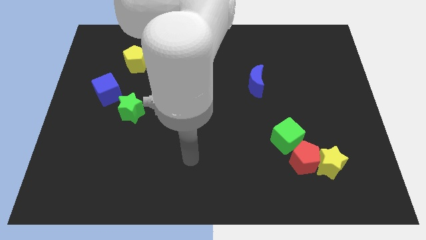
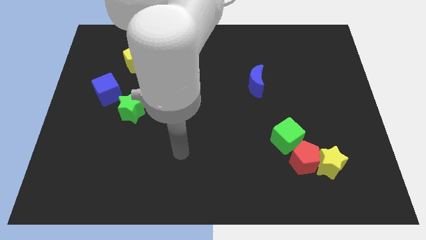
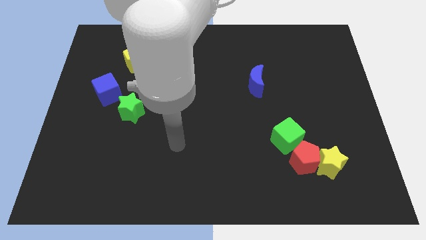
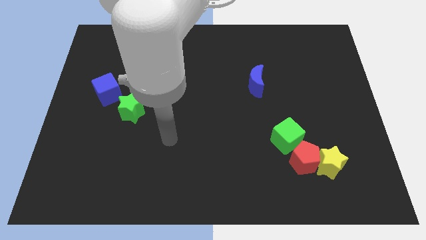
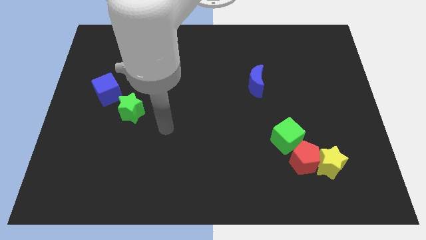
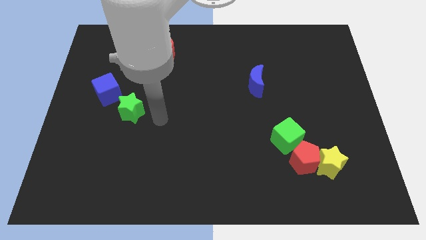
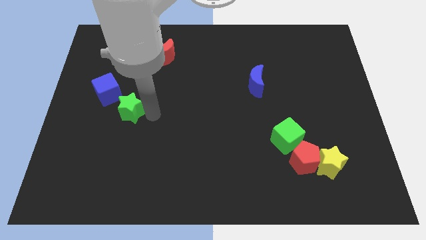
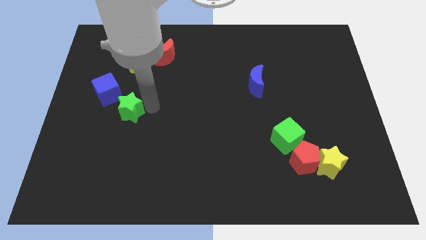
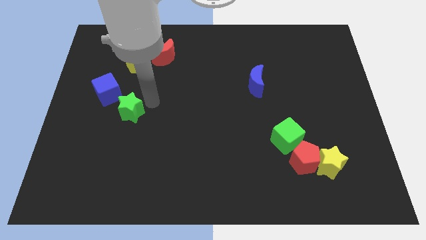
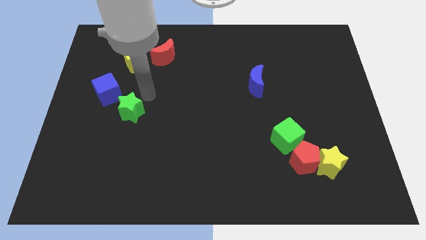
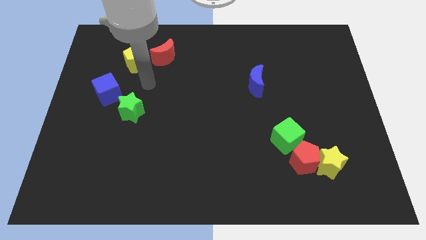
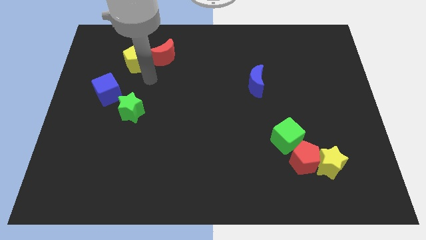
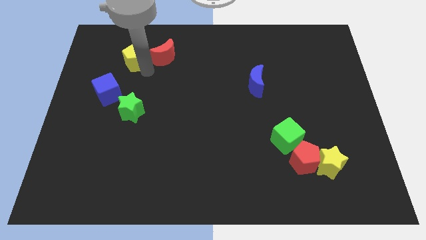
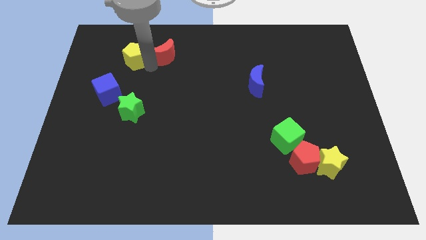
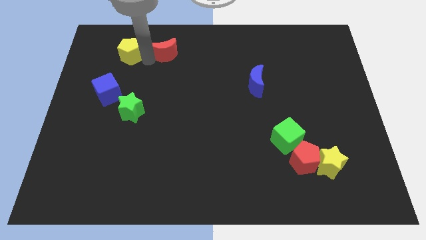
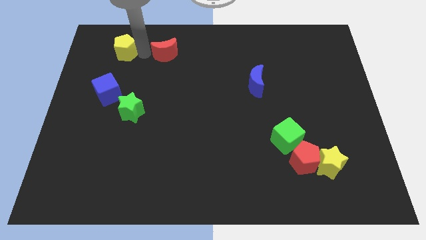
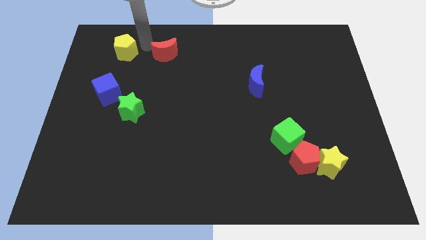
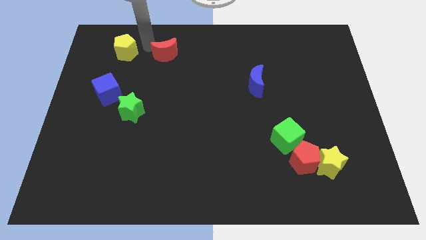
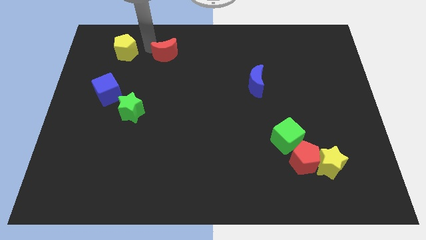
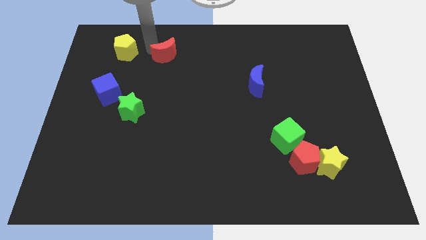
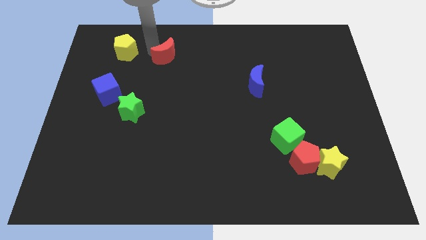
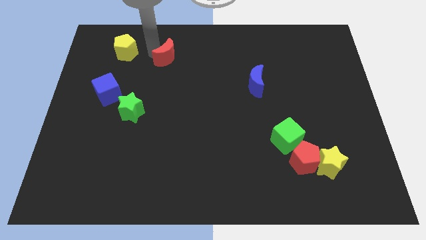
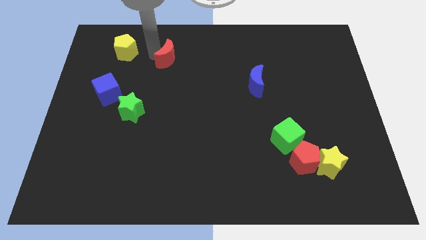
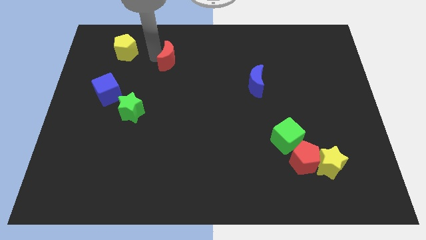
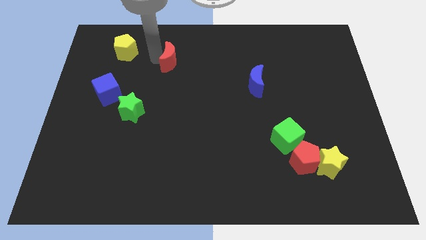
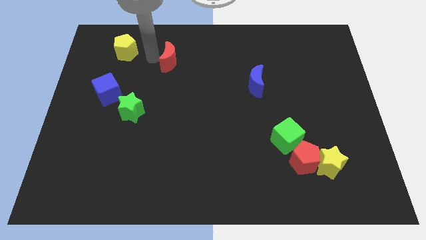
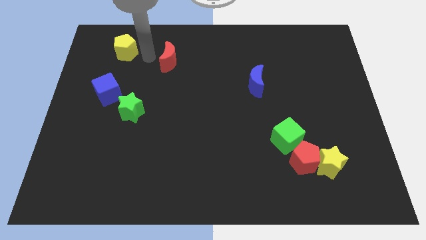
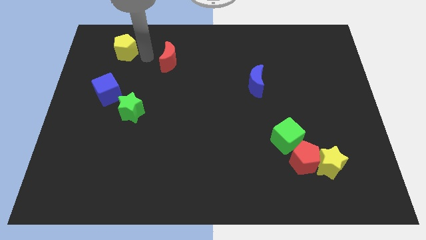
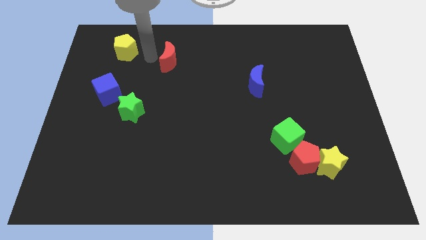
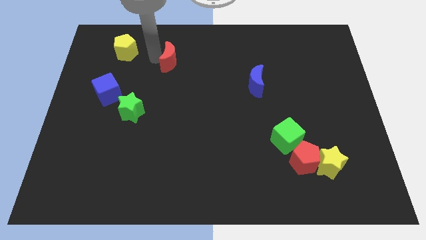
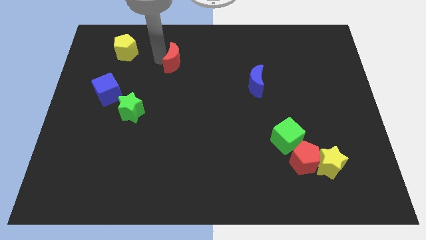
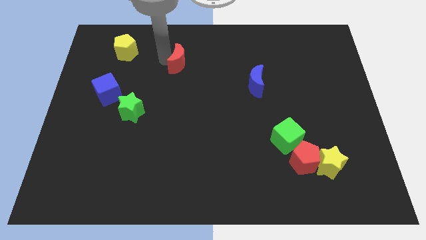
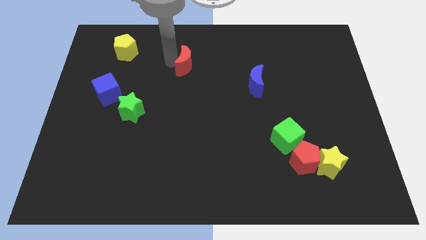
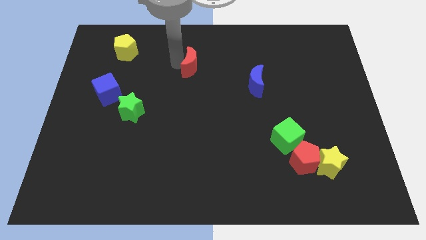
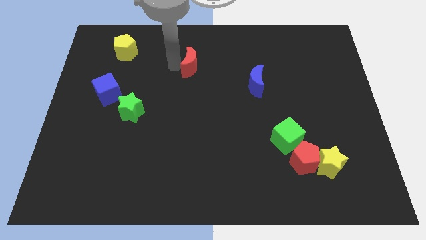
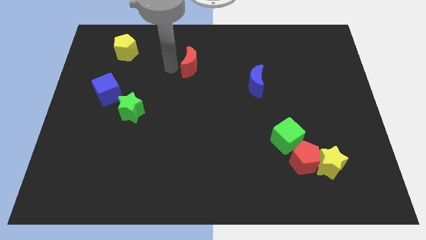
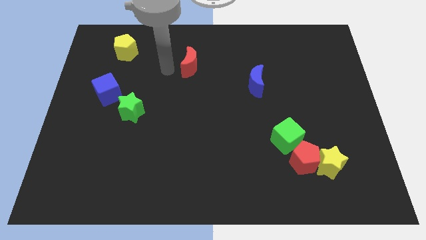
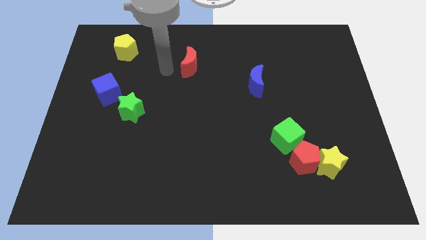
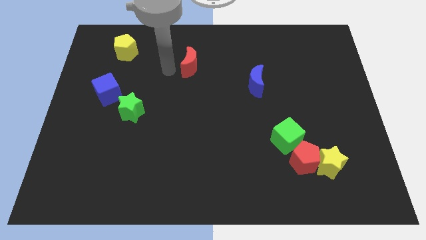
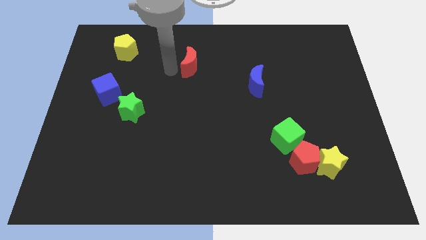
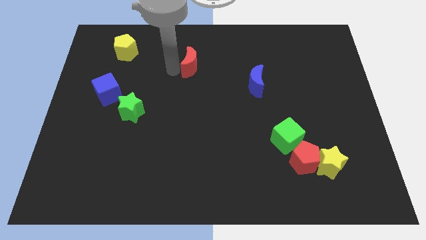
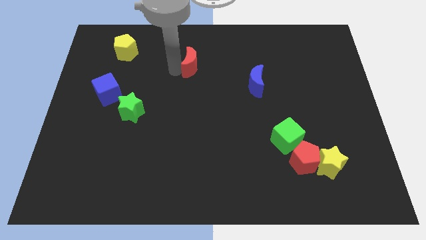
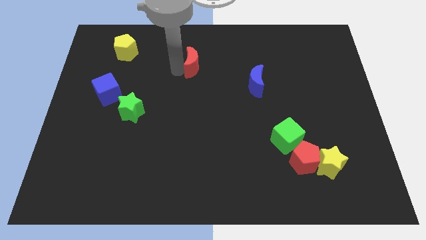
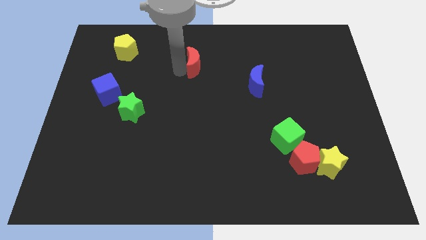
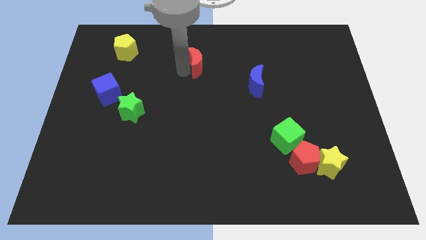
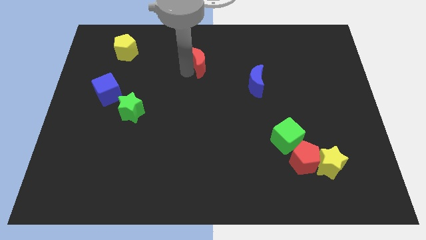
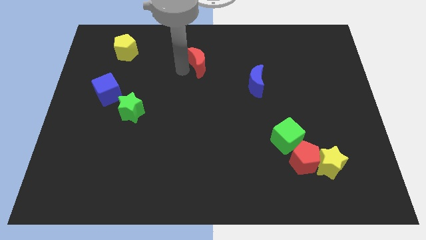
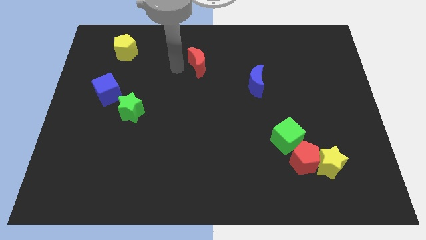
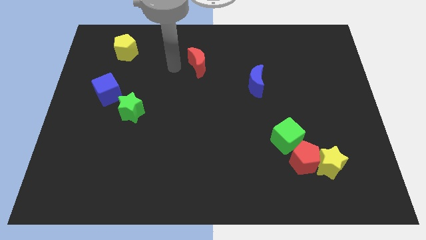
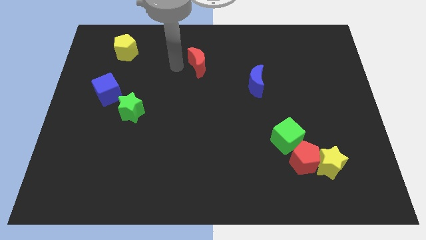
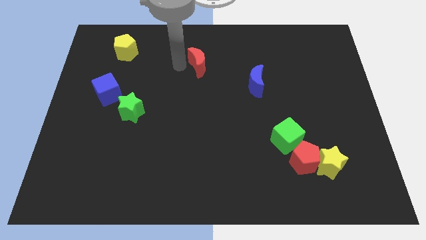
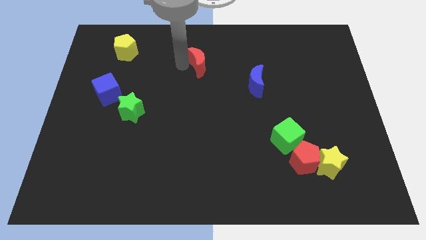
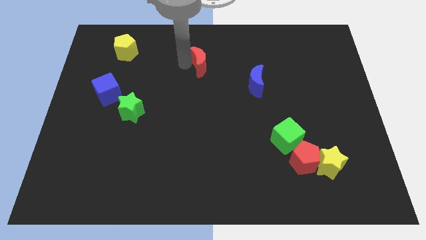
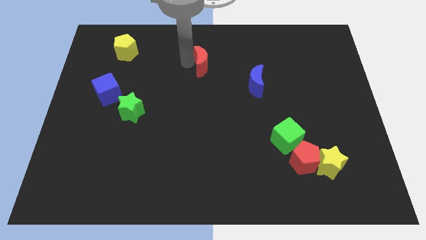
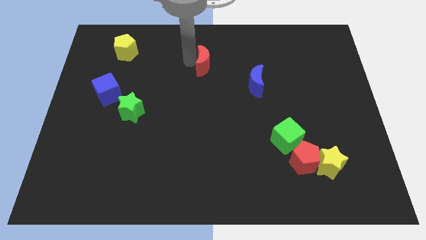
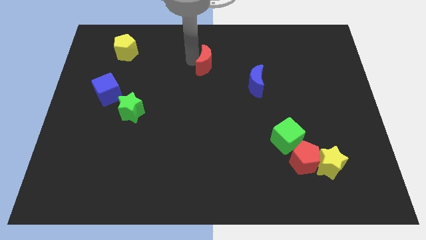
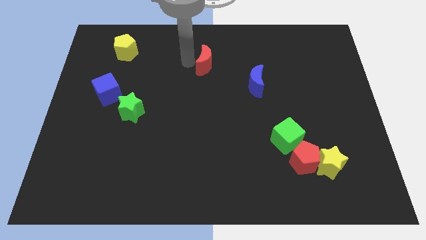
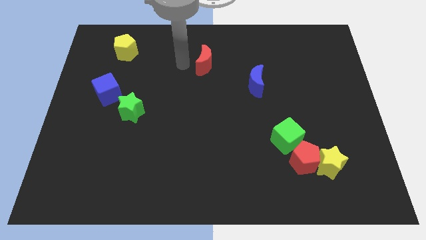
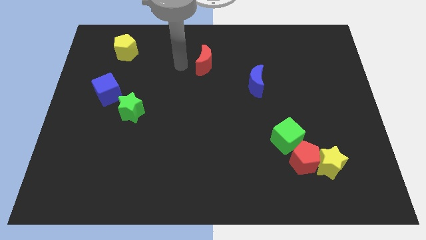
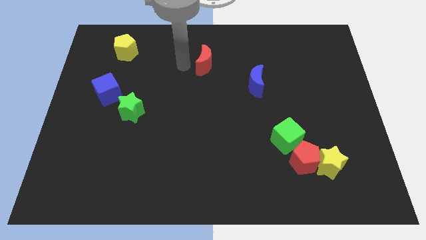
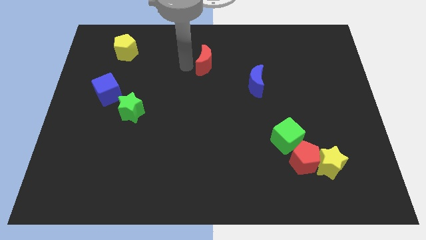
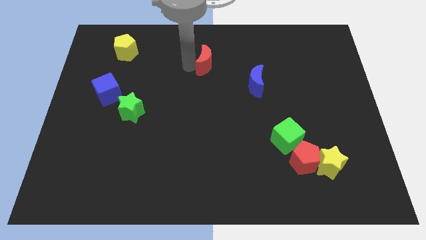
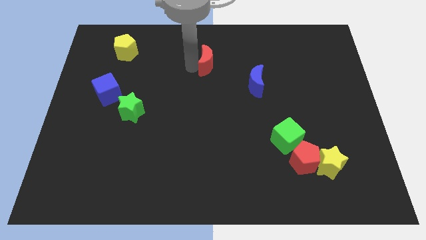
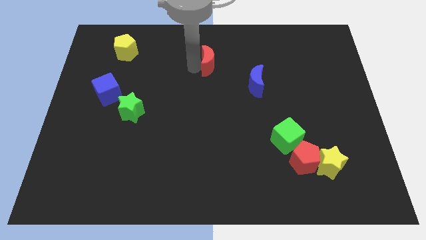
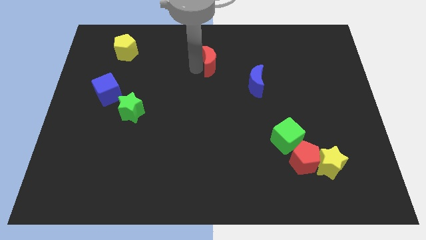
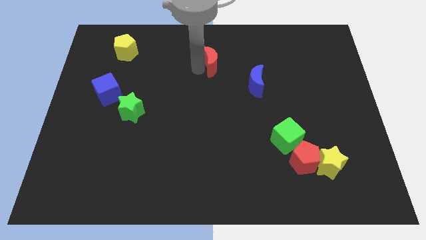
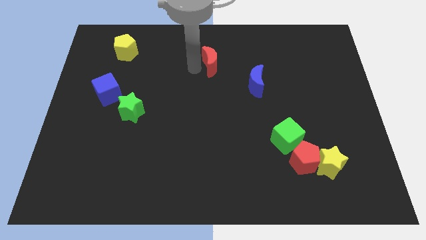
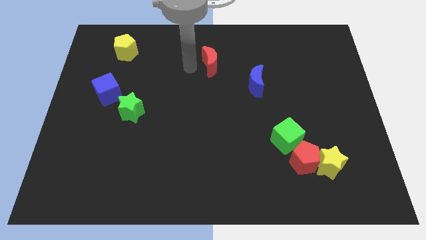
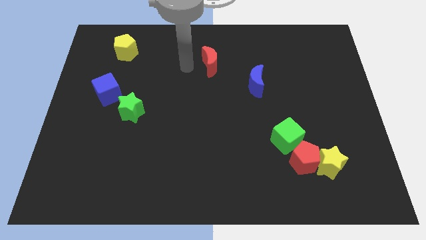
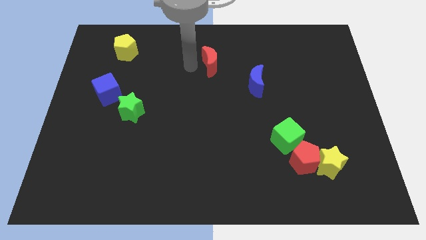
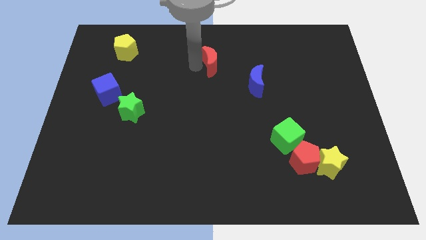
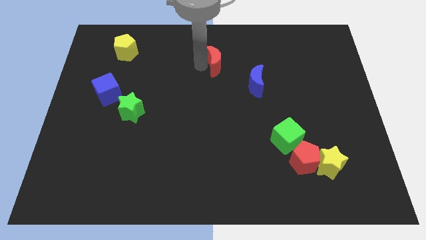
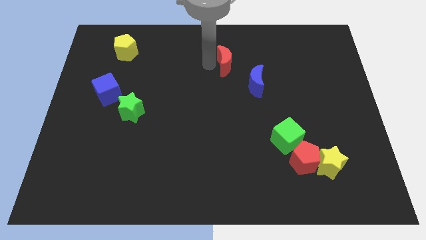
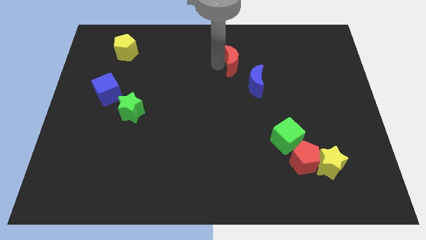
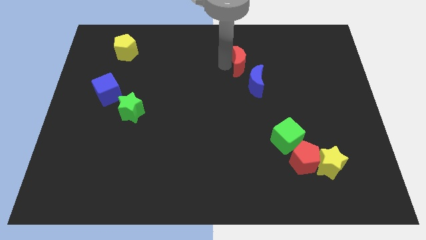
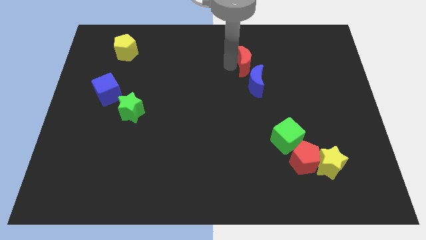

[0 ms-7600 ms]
push the red moon to the right

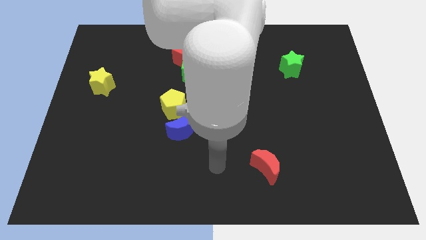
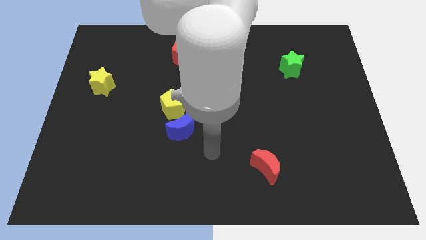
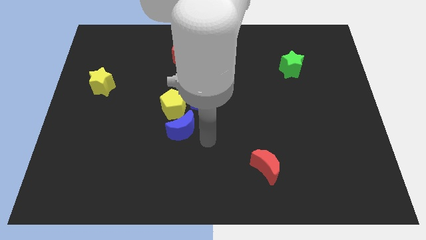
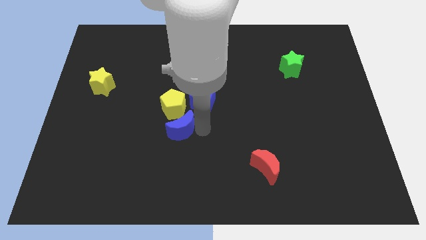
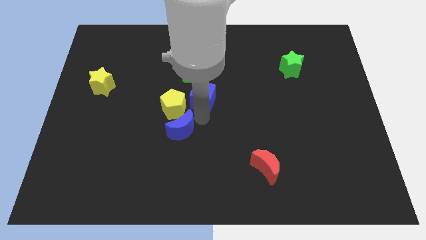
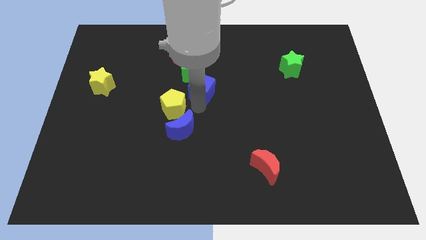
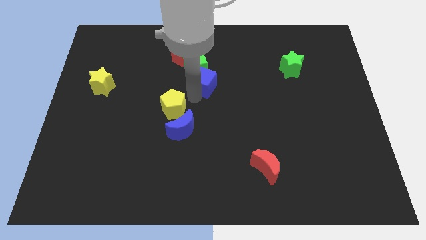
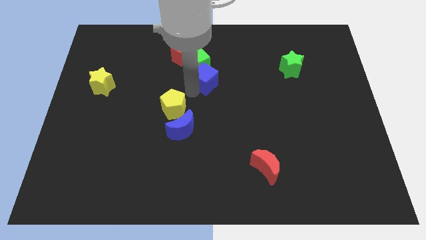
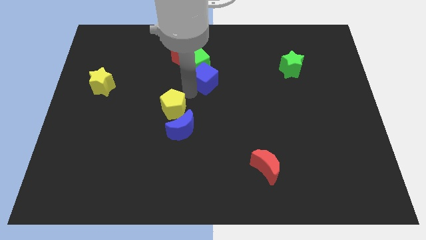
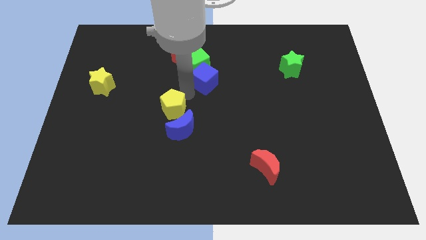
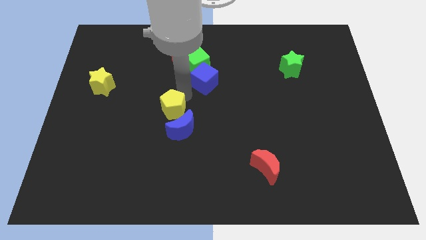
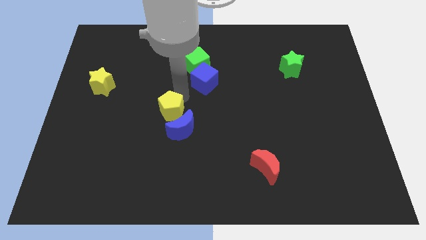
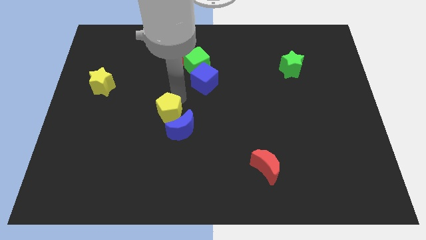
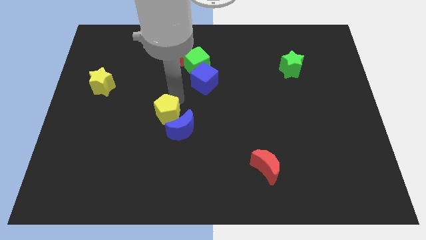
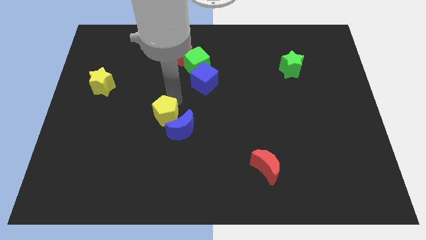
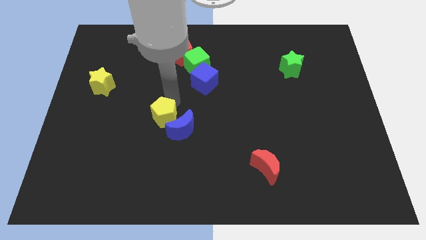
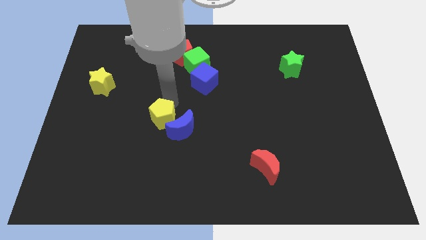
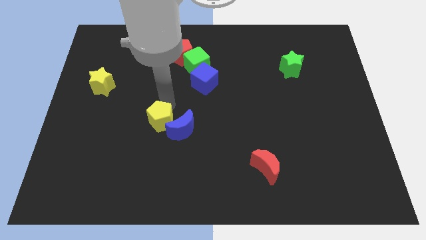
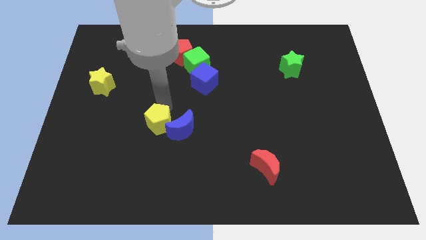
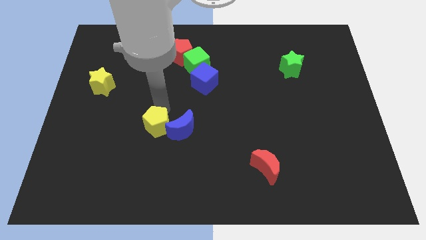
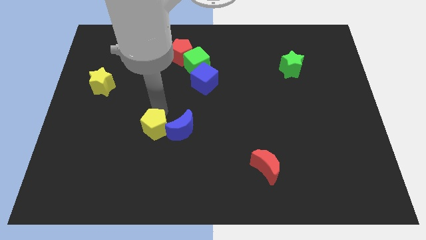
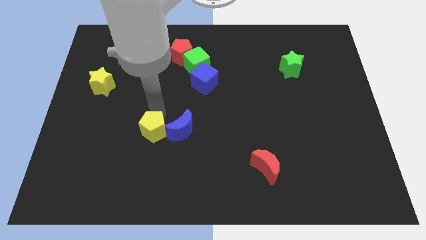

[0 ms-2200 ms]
slide the yellow pentagon a little bit downwards and then to the left
